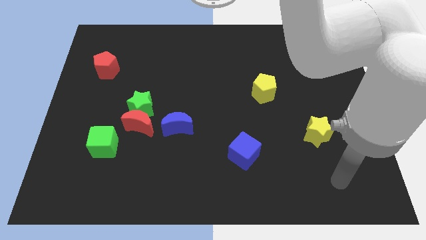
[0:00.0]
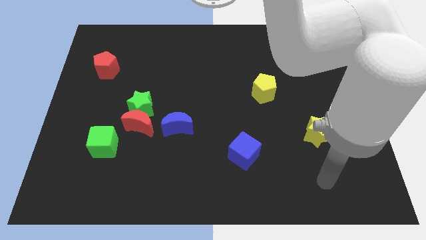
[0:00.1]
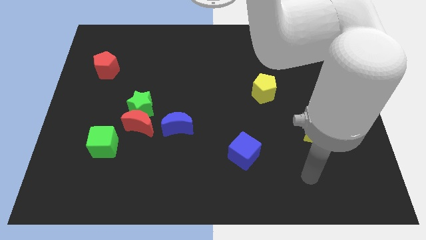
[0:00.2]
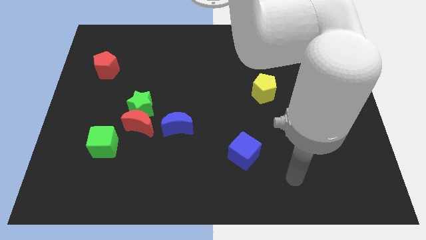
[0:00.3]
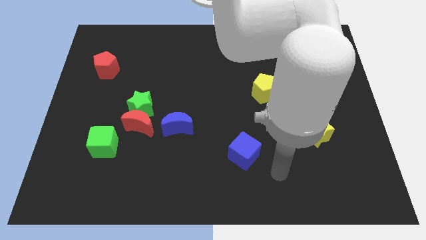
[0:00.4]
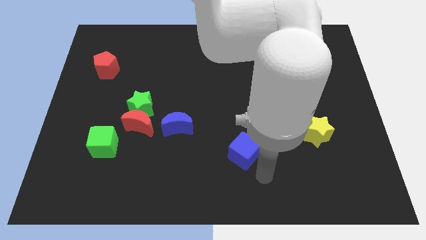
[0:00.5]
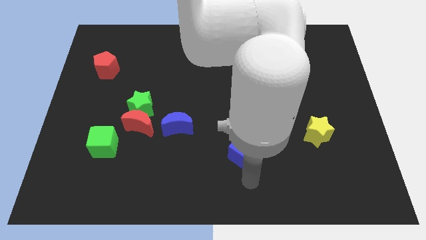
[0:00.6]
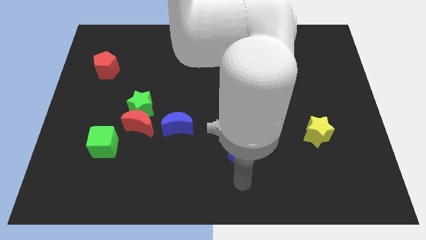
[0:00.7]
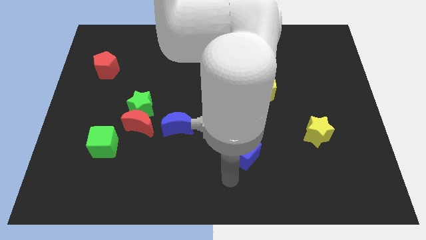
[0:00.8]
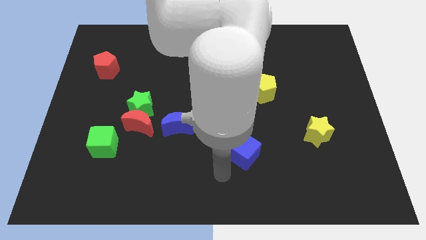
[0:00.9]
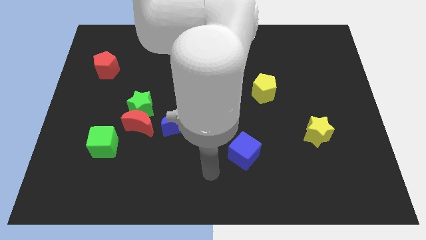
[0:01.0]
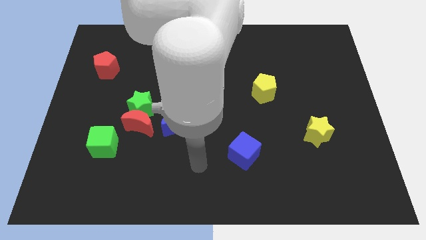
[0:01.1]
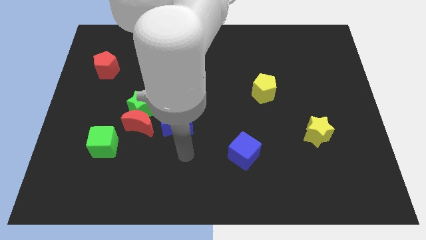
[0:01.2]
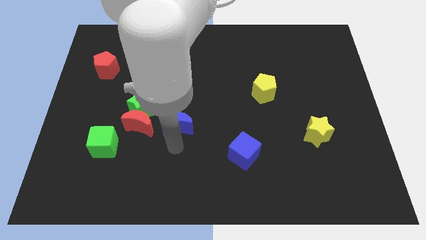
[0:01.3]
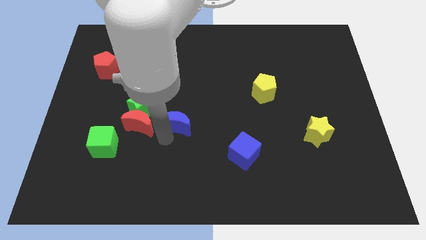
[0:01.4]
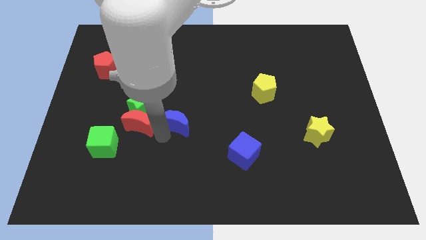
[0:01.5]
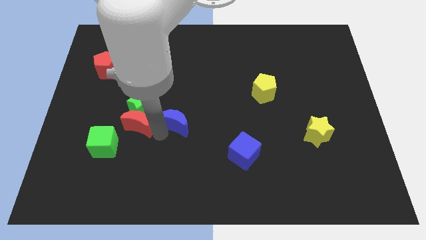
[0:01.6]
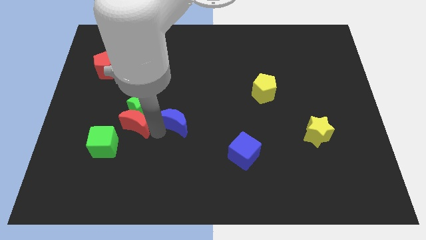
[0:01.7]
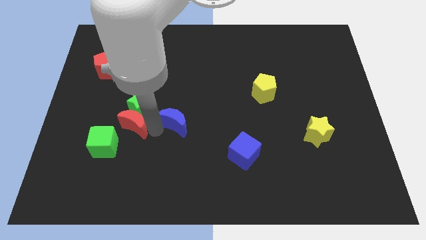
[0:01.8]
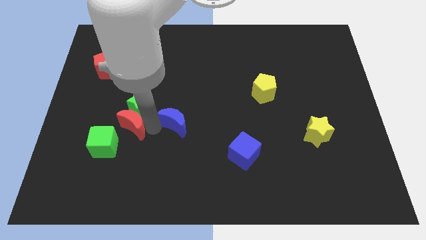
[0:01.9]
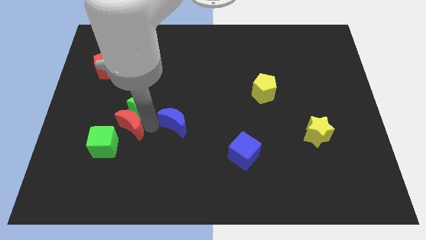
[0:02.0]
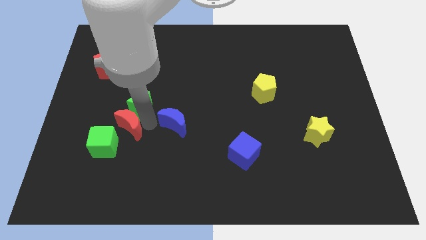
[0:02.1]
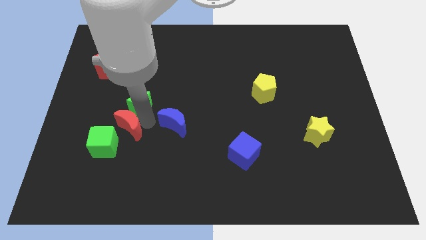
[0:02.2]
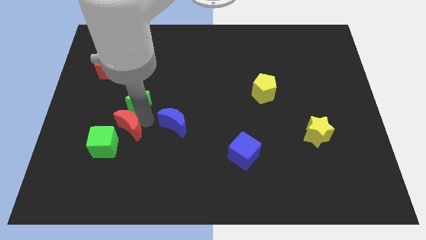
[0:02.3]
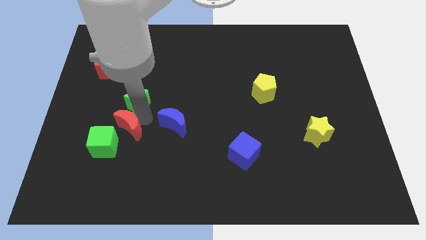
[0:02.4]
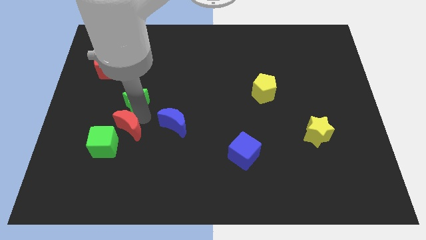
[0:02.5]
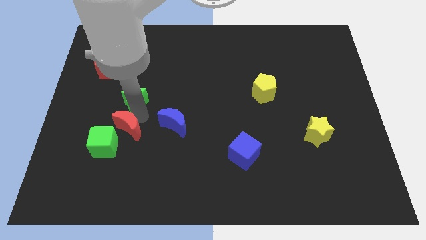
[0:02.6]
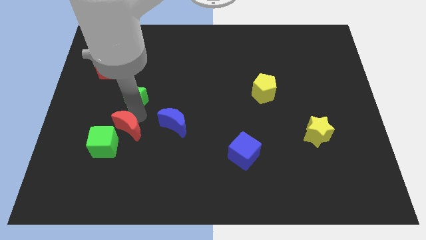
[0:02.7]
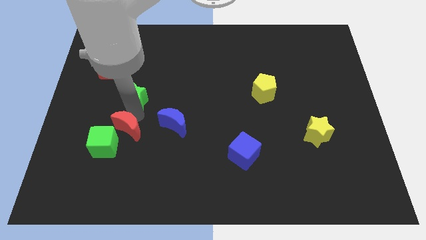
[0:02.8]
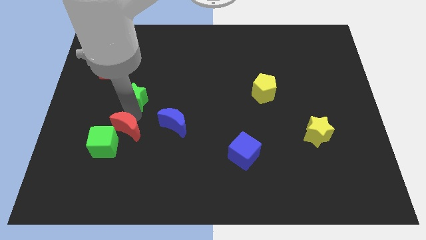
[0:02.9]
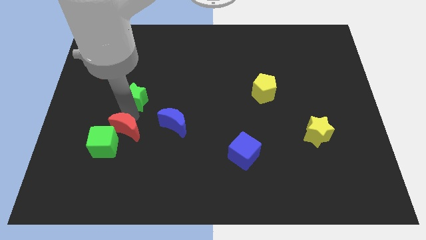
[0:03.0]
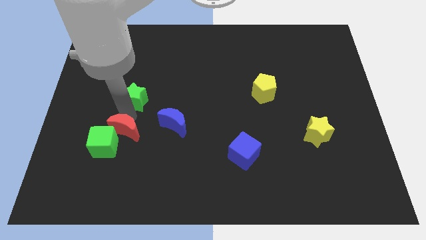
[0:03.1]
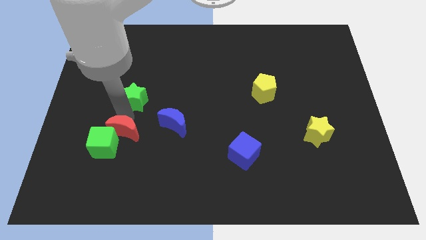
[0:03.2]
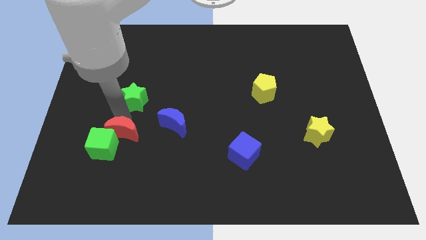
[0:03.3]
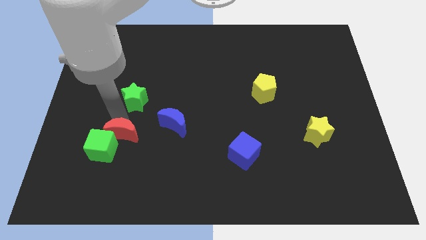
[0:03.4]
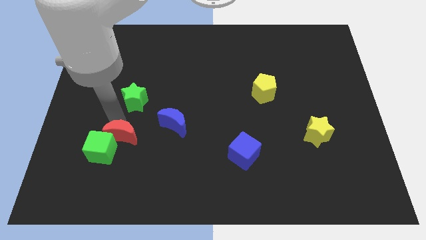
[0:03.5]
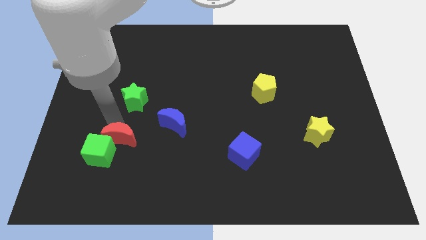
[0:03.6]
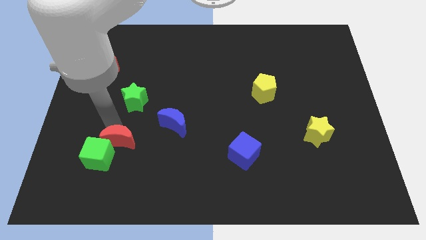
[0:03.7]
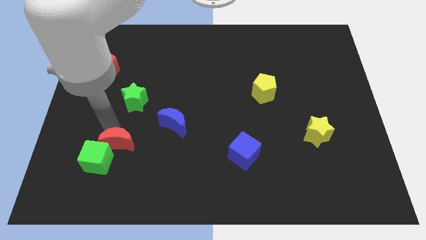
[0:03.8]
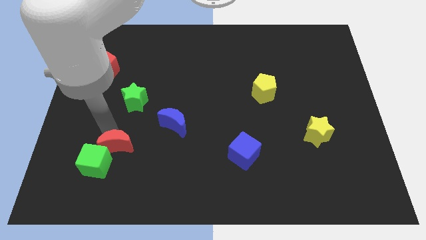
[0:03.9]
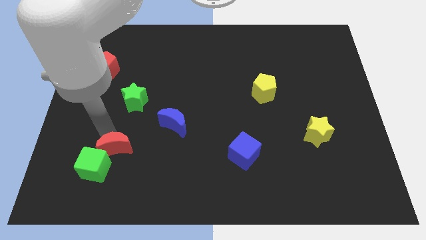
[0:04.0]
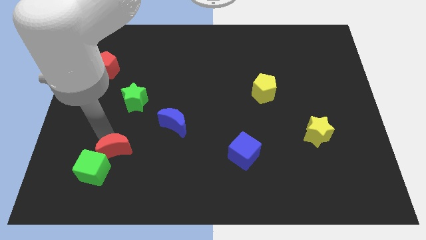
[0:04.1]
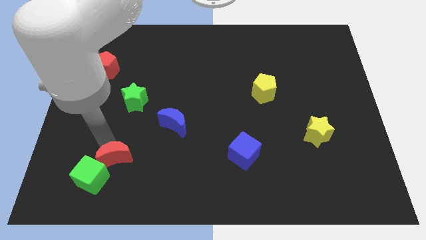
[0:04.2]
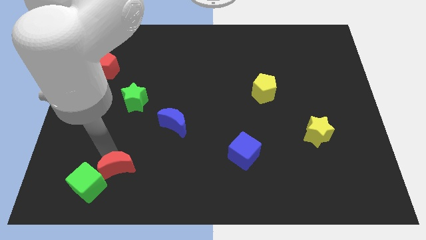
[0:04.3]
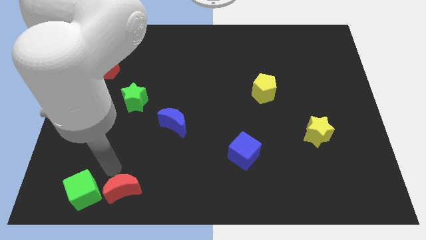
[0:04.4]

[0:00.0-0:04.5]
separate the red moon from the green star, blue moon, and green cube

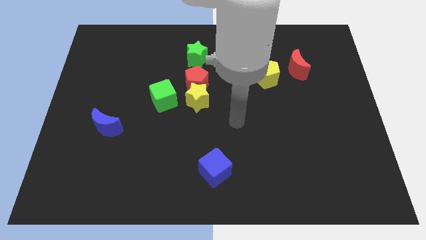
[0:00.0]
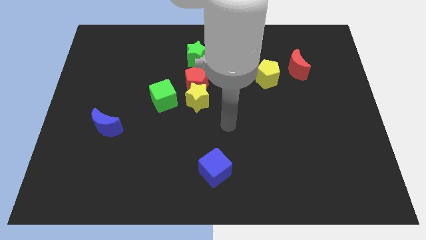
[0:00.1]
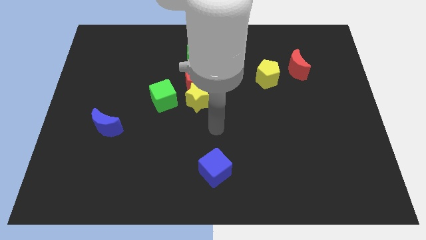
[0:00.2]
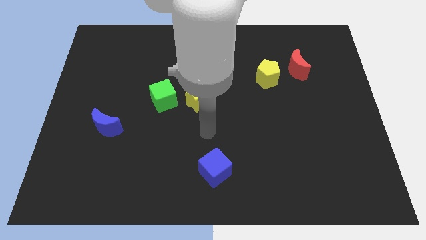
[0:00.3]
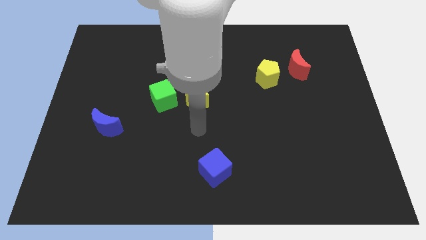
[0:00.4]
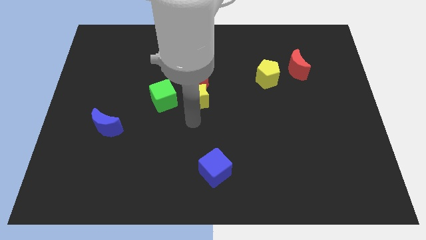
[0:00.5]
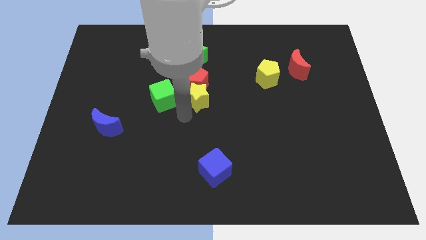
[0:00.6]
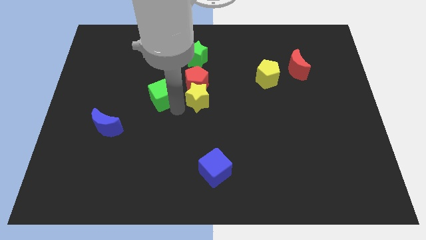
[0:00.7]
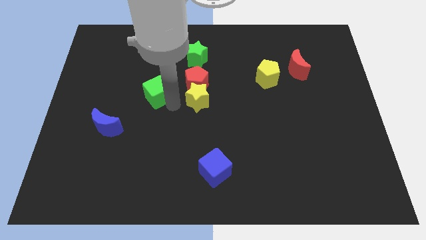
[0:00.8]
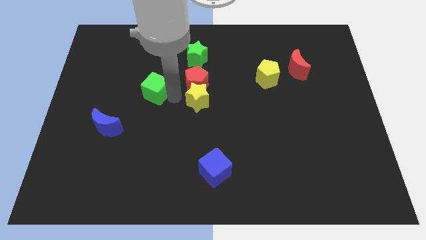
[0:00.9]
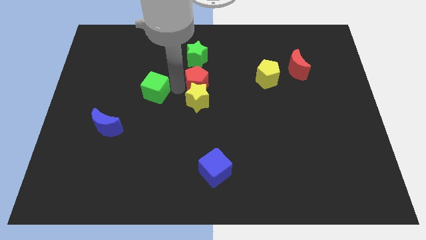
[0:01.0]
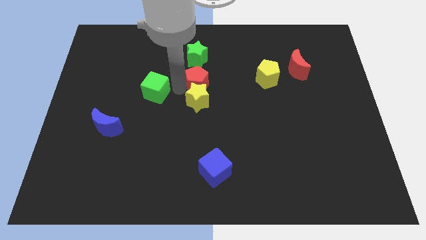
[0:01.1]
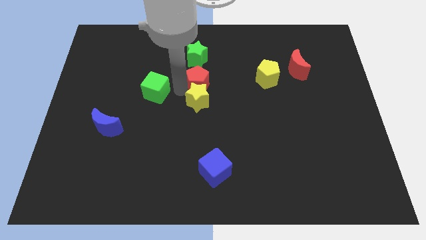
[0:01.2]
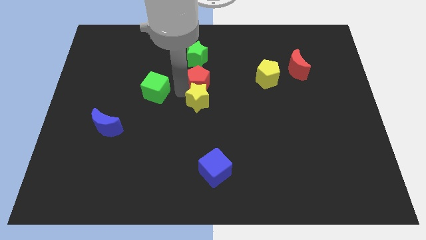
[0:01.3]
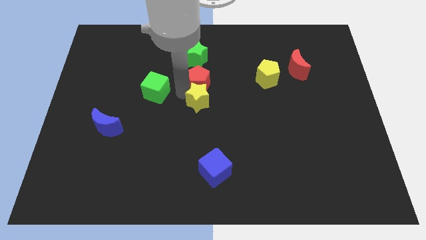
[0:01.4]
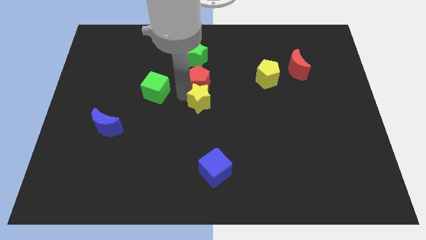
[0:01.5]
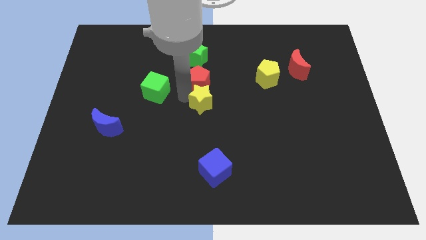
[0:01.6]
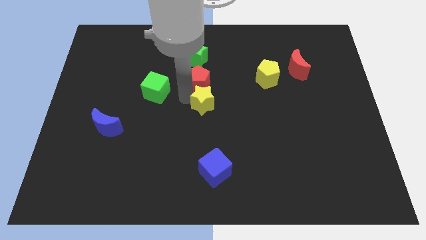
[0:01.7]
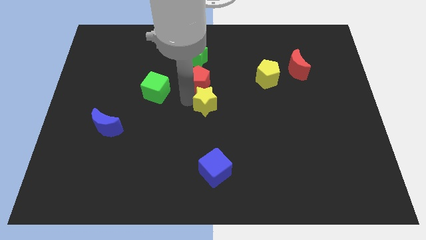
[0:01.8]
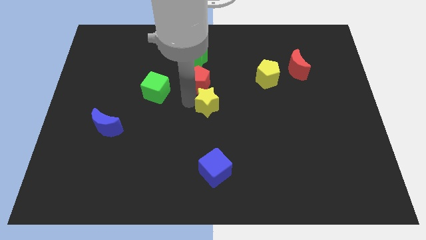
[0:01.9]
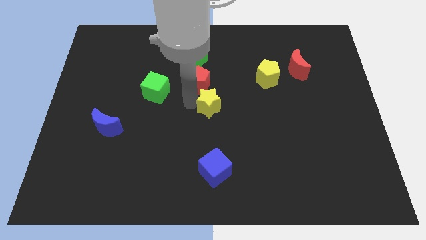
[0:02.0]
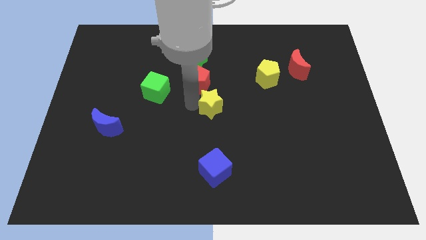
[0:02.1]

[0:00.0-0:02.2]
separate the yellow star from the red pentagon and green cube

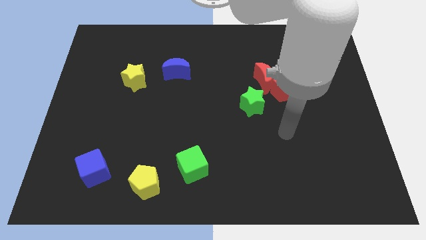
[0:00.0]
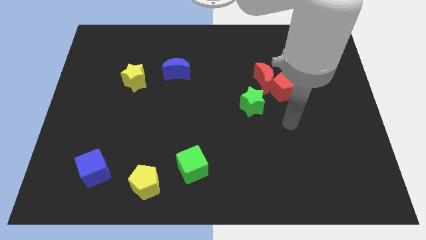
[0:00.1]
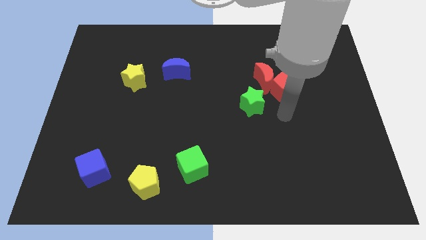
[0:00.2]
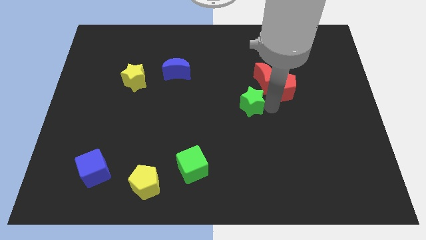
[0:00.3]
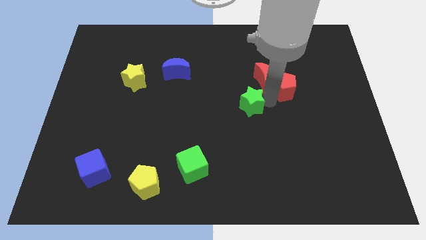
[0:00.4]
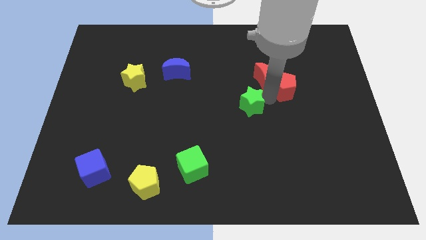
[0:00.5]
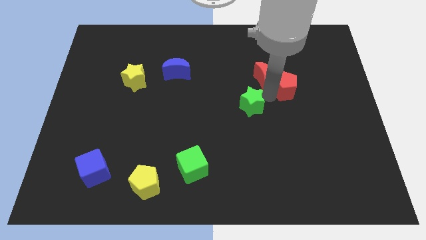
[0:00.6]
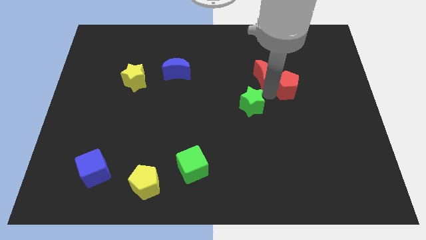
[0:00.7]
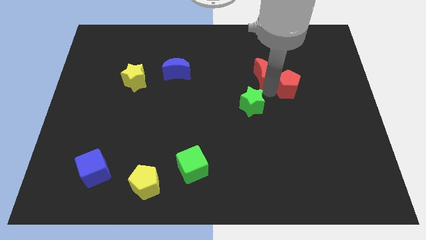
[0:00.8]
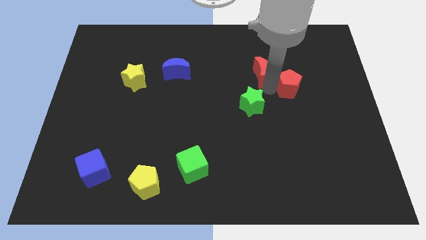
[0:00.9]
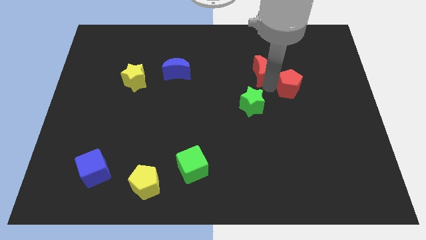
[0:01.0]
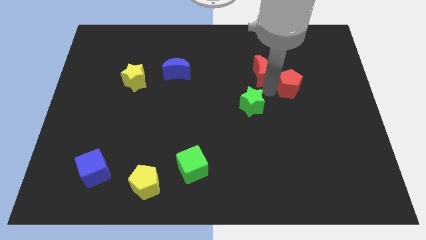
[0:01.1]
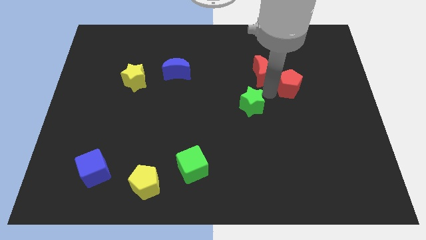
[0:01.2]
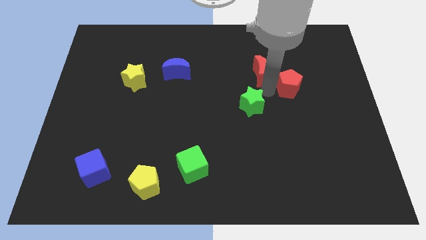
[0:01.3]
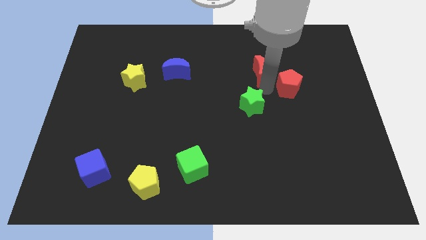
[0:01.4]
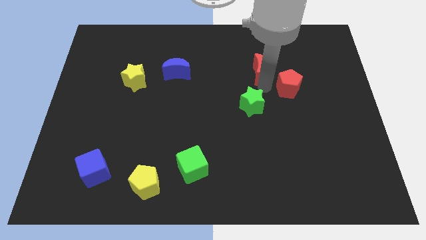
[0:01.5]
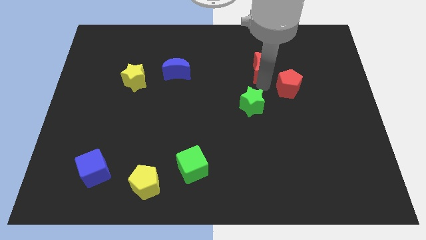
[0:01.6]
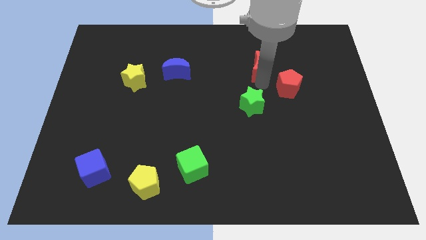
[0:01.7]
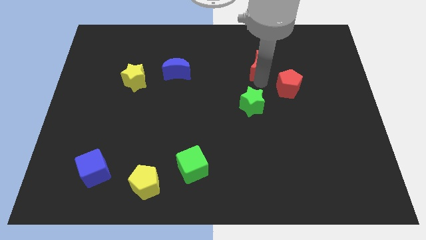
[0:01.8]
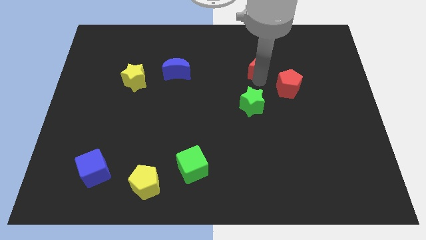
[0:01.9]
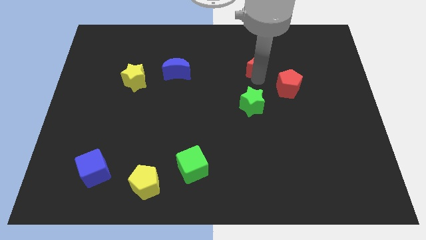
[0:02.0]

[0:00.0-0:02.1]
move the red moon away from the red pentagon and green star

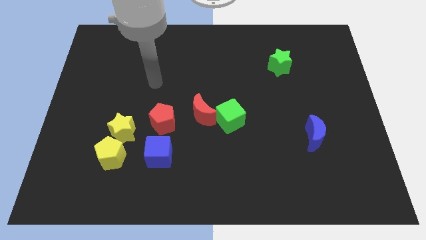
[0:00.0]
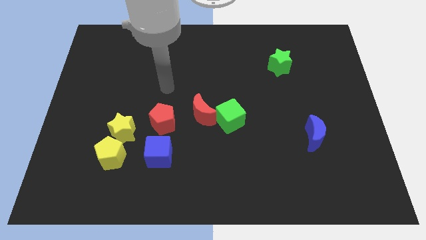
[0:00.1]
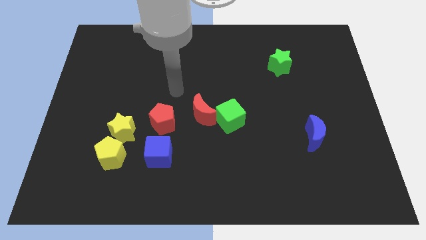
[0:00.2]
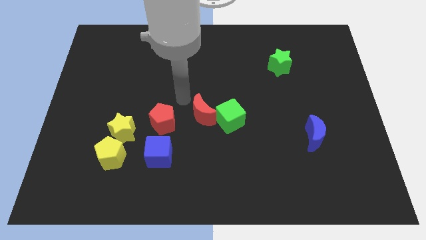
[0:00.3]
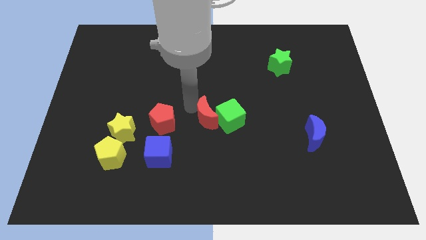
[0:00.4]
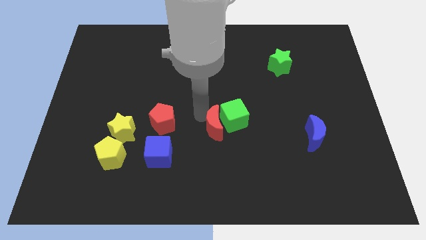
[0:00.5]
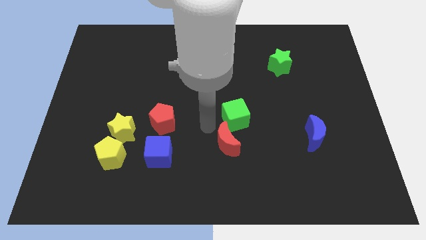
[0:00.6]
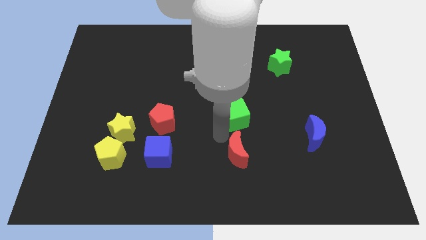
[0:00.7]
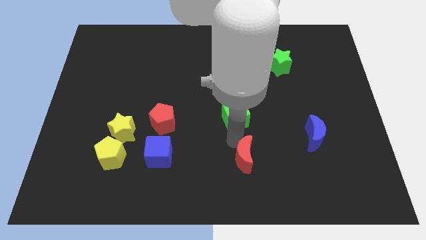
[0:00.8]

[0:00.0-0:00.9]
separate the green cube from the red moon
